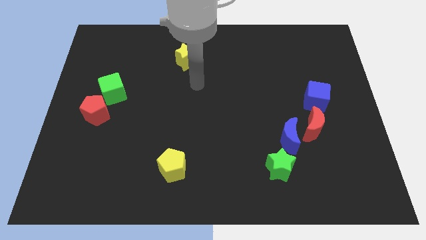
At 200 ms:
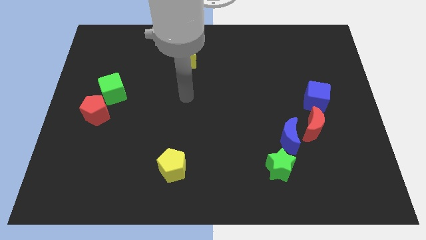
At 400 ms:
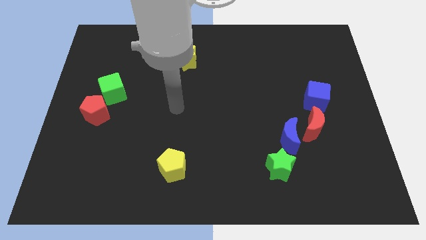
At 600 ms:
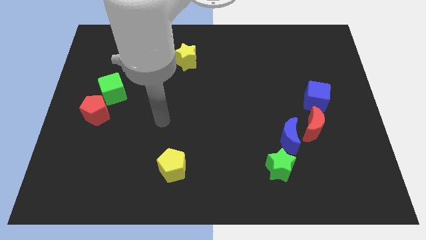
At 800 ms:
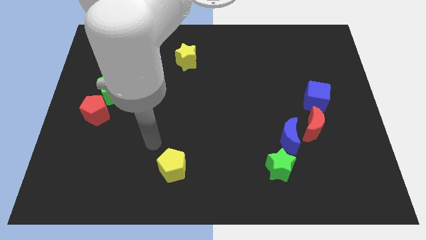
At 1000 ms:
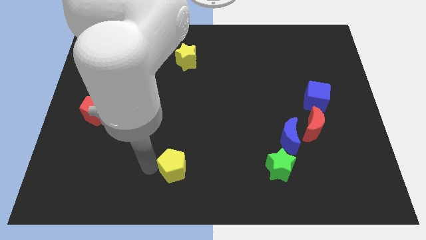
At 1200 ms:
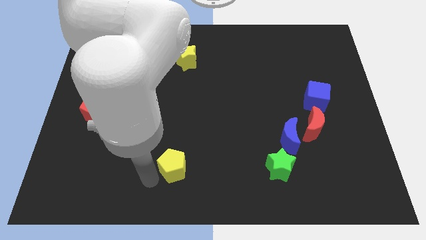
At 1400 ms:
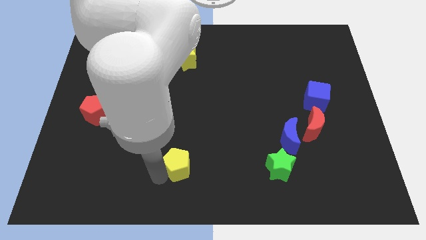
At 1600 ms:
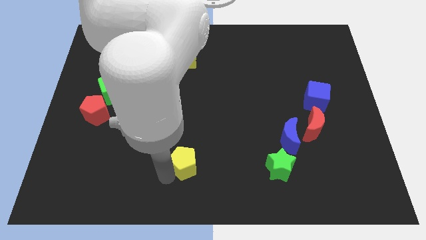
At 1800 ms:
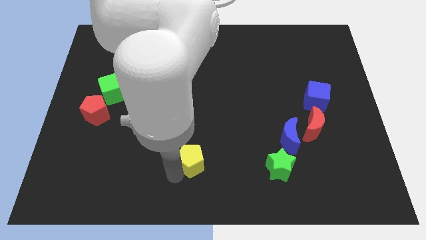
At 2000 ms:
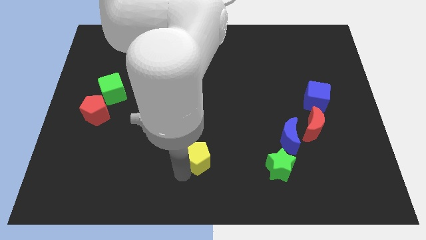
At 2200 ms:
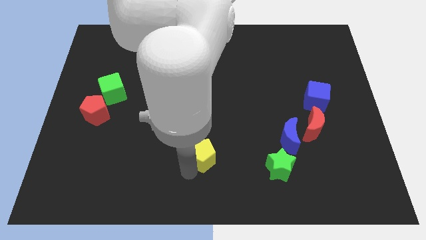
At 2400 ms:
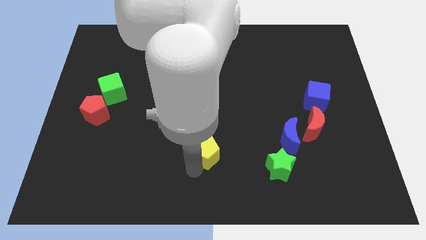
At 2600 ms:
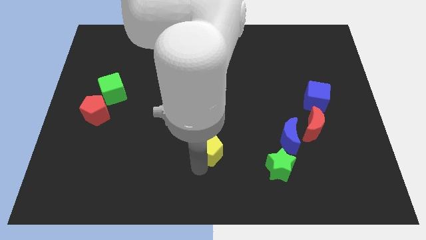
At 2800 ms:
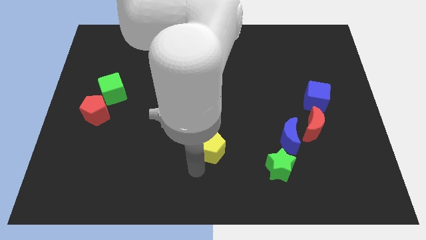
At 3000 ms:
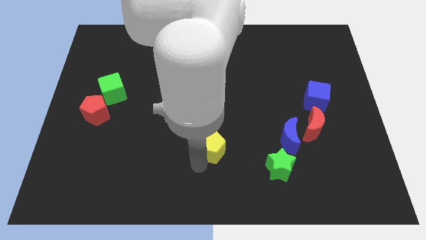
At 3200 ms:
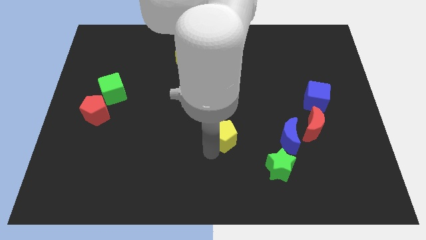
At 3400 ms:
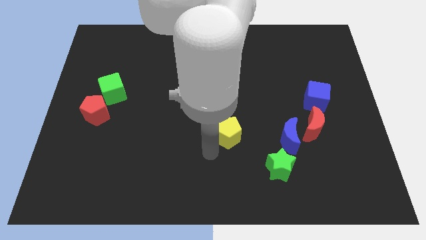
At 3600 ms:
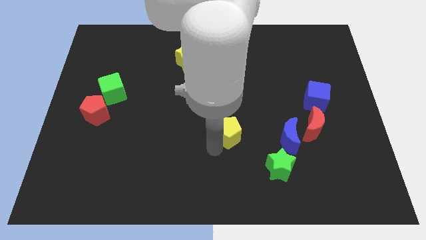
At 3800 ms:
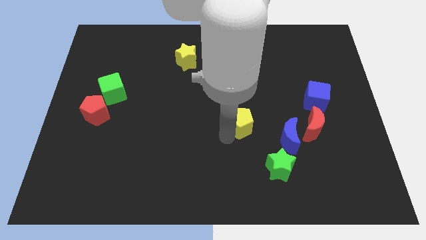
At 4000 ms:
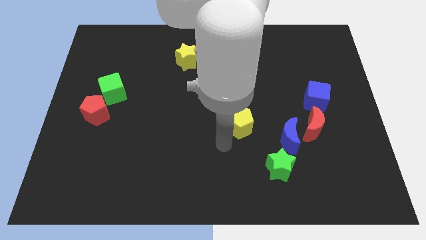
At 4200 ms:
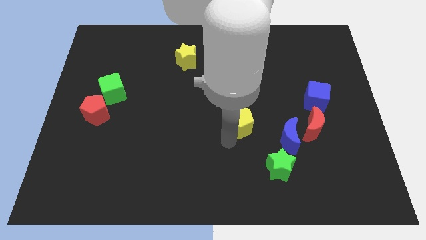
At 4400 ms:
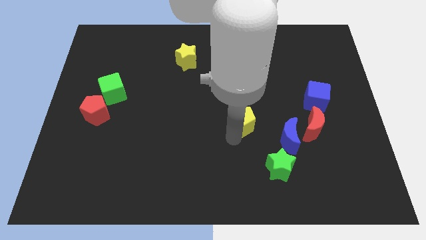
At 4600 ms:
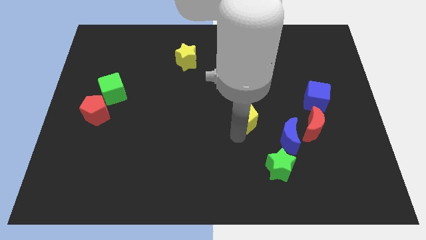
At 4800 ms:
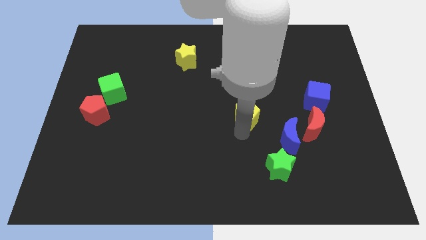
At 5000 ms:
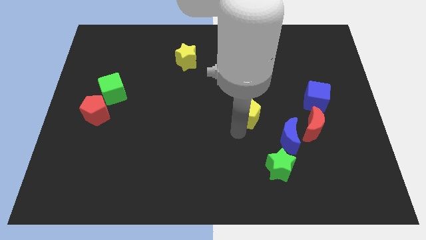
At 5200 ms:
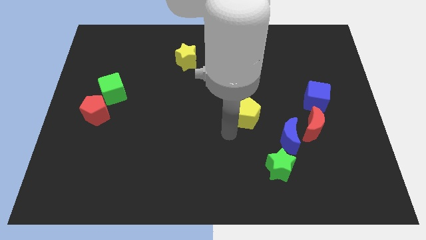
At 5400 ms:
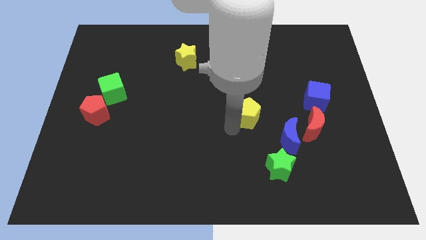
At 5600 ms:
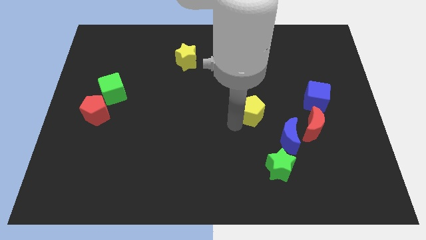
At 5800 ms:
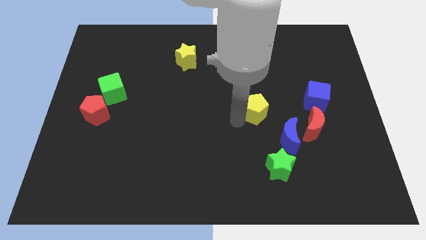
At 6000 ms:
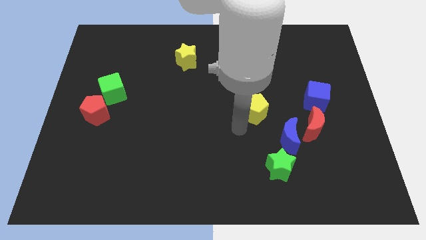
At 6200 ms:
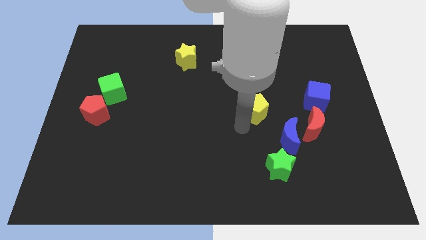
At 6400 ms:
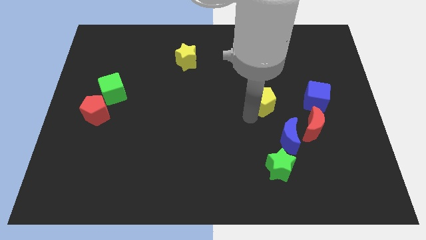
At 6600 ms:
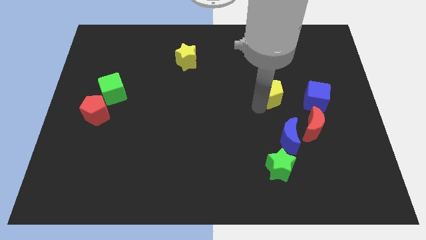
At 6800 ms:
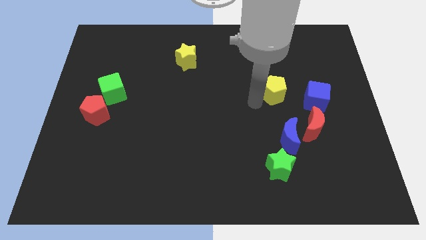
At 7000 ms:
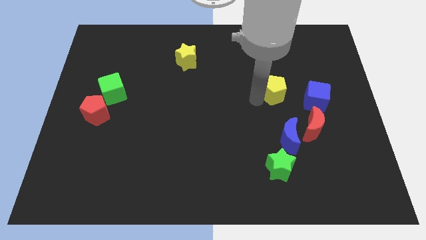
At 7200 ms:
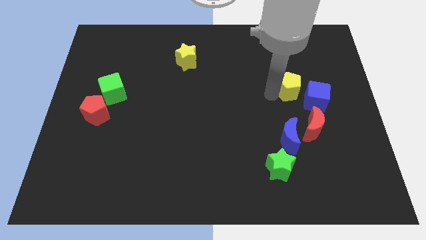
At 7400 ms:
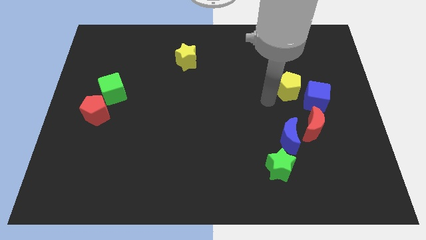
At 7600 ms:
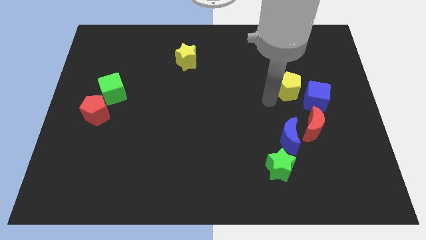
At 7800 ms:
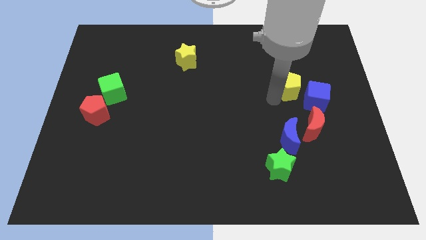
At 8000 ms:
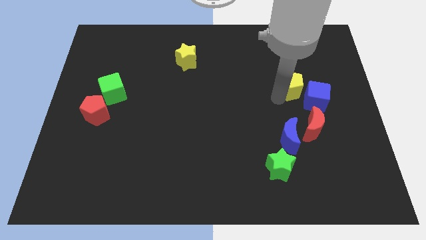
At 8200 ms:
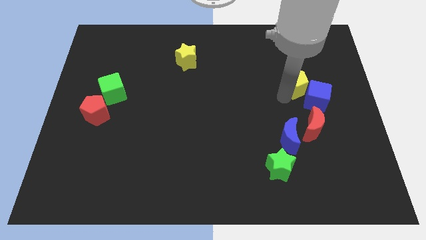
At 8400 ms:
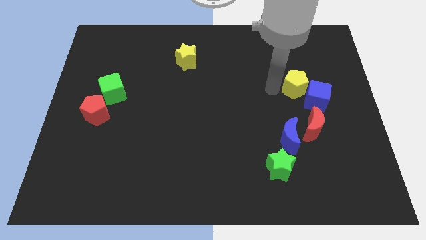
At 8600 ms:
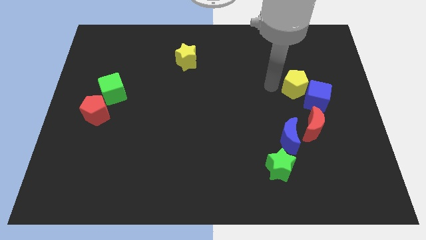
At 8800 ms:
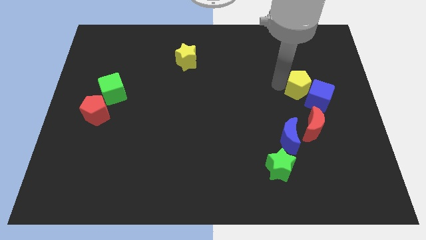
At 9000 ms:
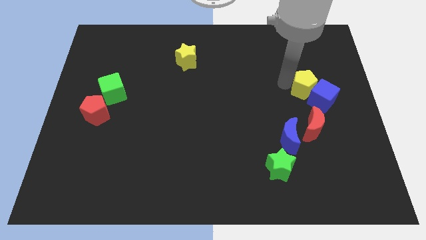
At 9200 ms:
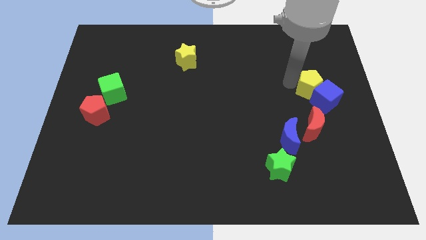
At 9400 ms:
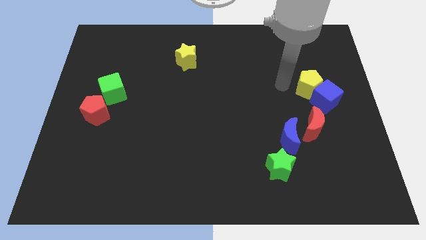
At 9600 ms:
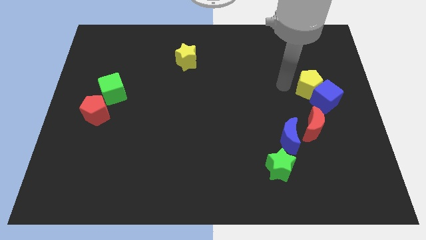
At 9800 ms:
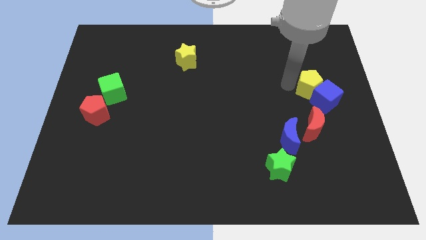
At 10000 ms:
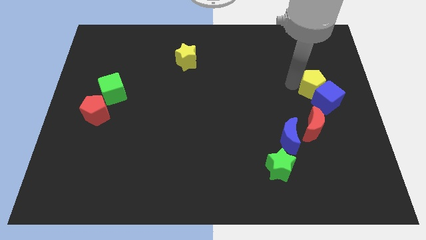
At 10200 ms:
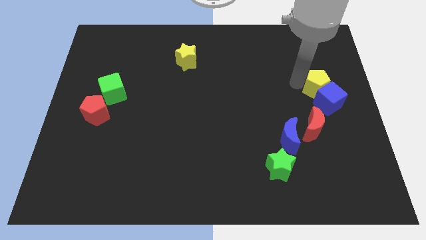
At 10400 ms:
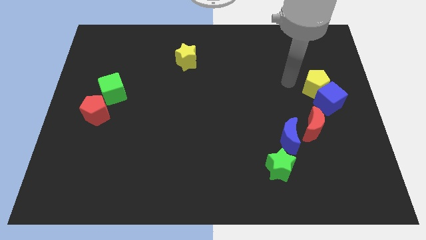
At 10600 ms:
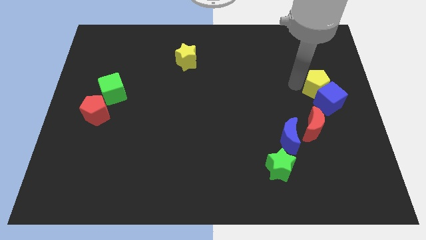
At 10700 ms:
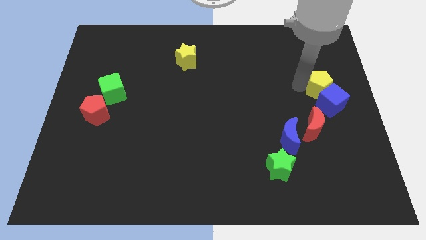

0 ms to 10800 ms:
push the yellow pentagon to the right side

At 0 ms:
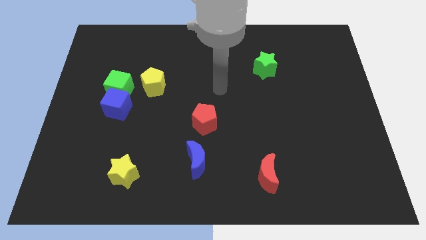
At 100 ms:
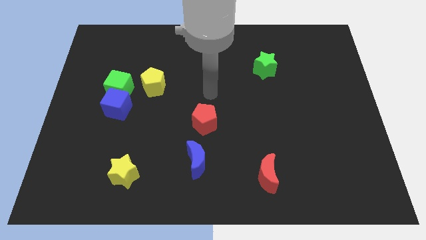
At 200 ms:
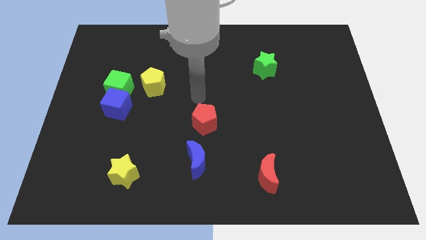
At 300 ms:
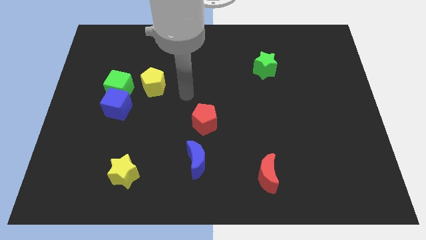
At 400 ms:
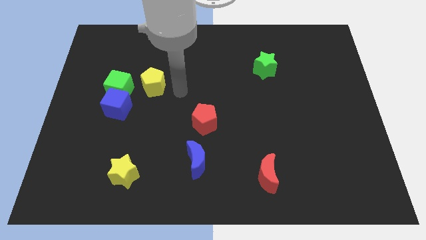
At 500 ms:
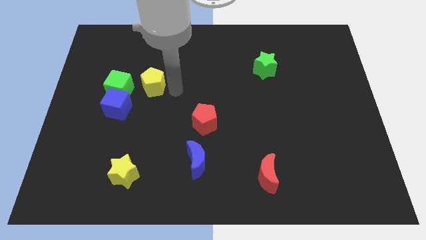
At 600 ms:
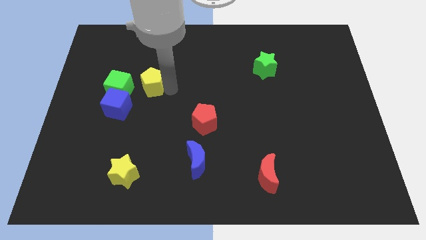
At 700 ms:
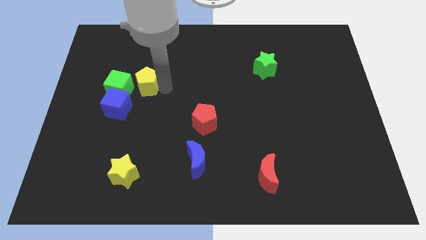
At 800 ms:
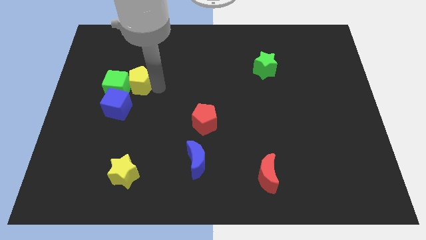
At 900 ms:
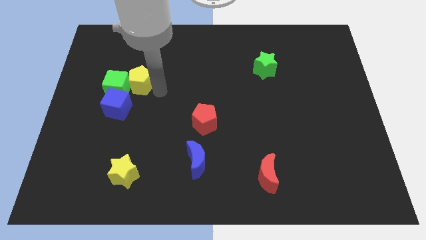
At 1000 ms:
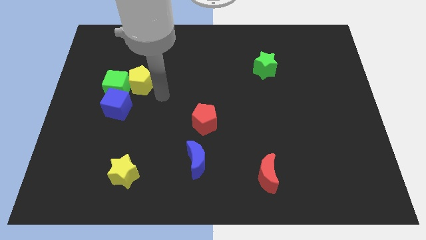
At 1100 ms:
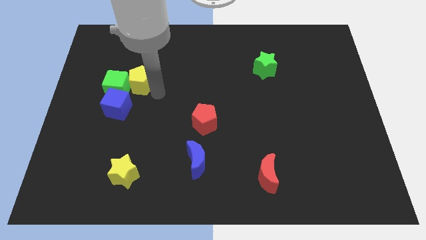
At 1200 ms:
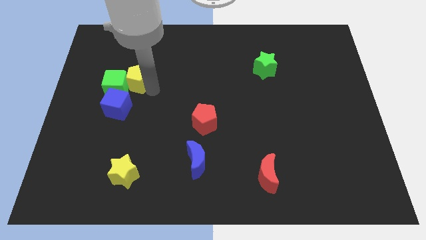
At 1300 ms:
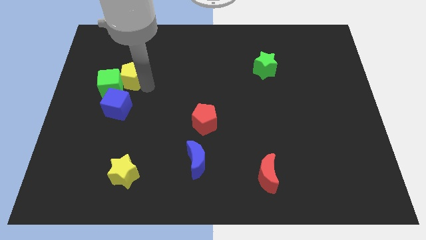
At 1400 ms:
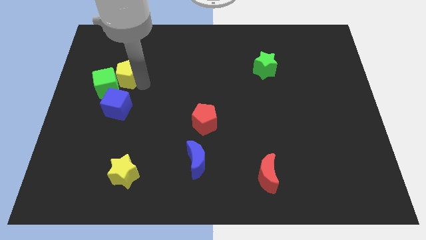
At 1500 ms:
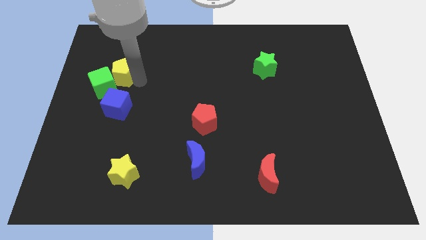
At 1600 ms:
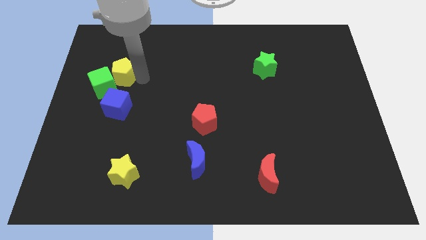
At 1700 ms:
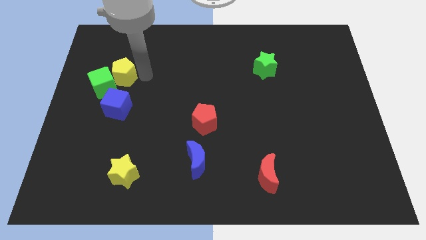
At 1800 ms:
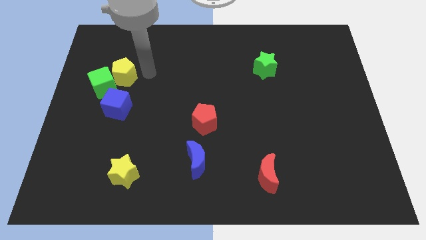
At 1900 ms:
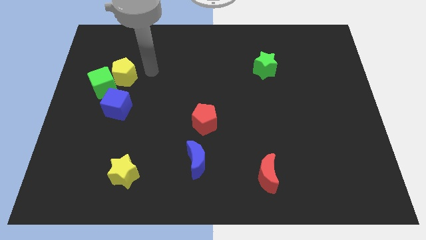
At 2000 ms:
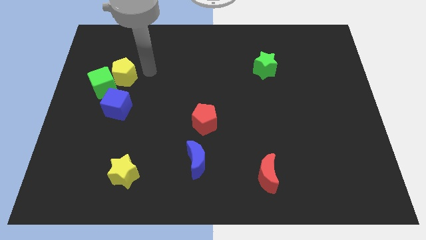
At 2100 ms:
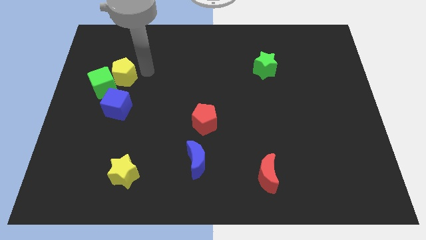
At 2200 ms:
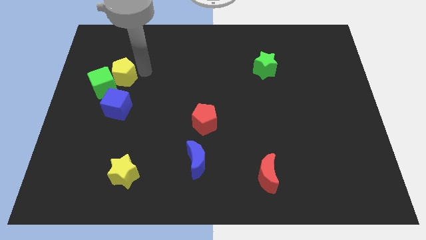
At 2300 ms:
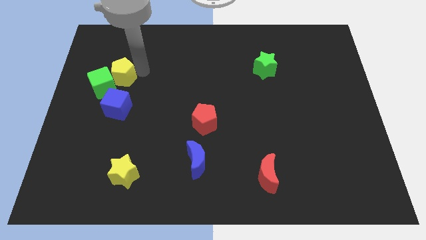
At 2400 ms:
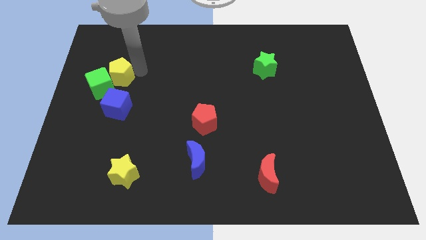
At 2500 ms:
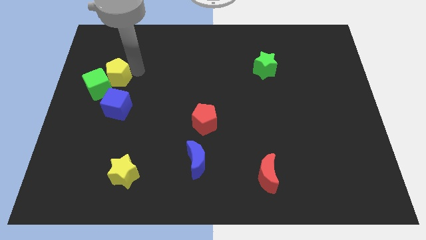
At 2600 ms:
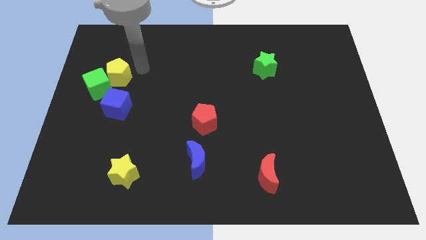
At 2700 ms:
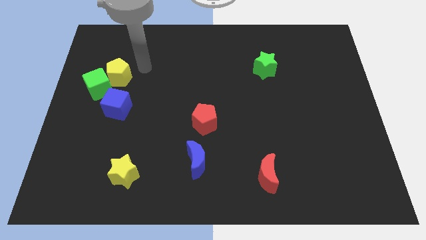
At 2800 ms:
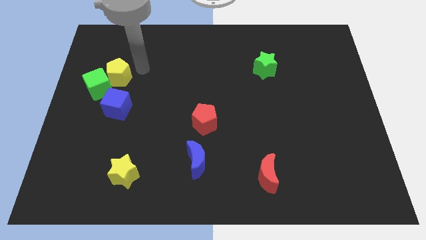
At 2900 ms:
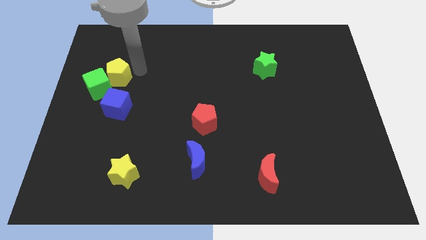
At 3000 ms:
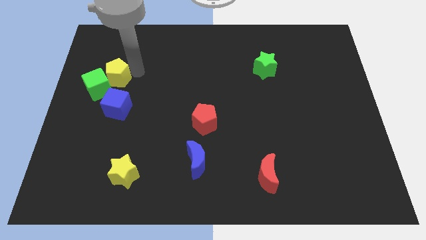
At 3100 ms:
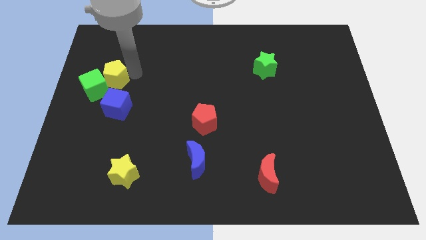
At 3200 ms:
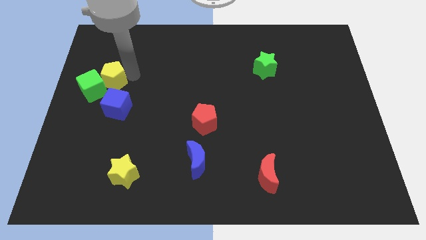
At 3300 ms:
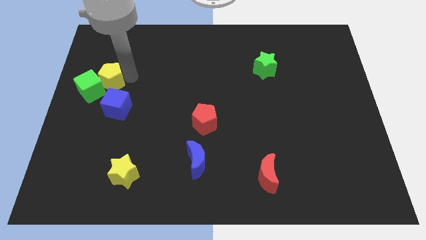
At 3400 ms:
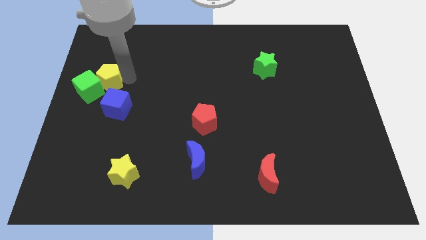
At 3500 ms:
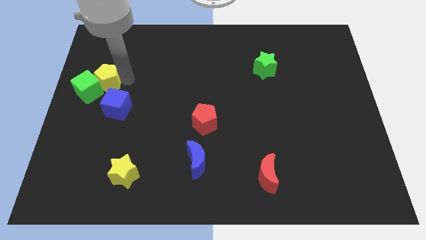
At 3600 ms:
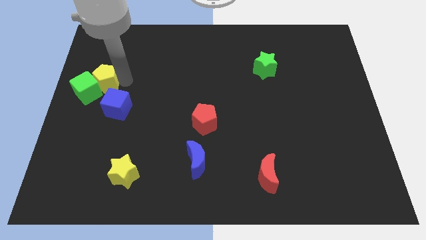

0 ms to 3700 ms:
move the yellow pentagon to the center left
